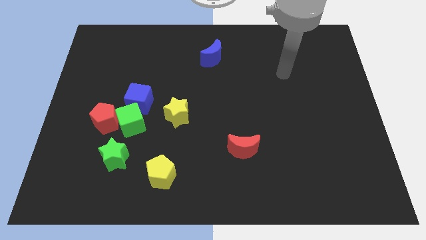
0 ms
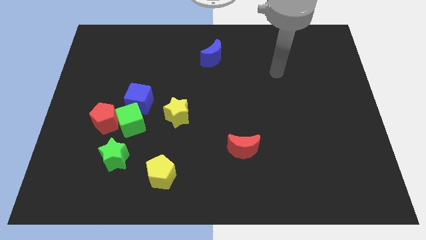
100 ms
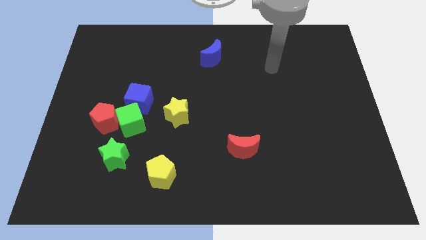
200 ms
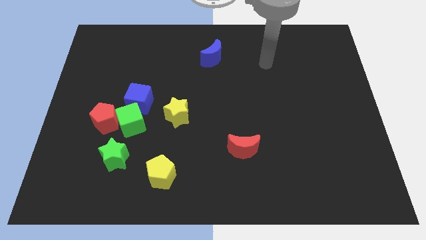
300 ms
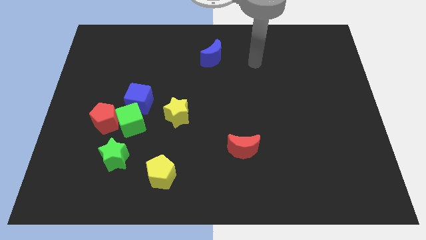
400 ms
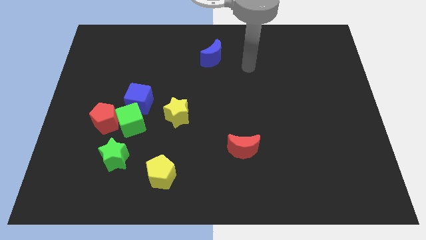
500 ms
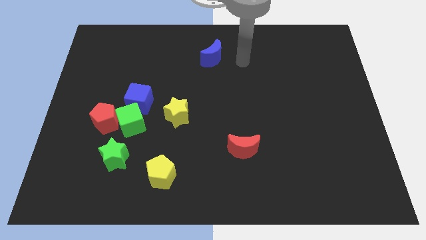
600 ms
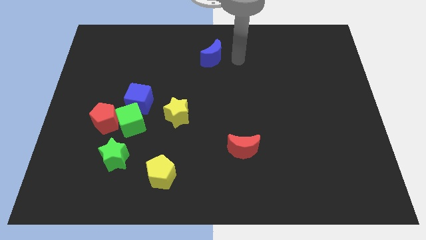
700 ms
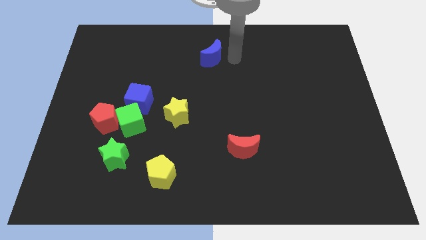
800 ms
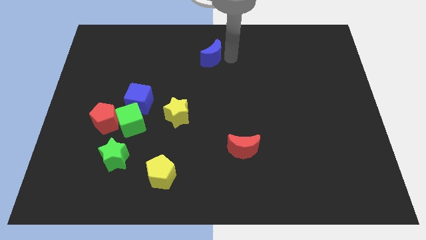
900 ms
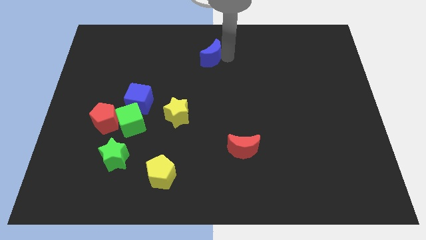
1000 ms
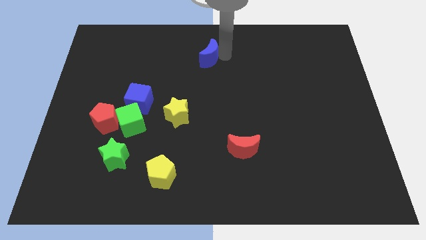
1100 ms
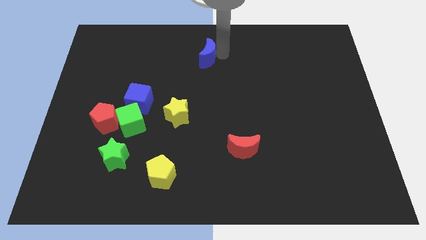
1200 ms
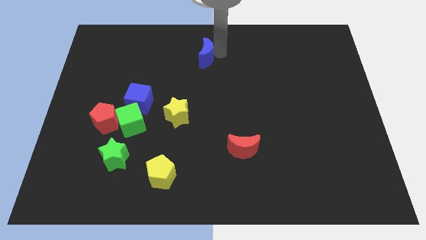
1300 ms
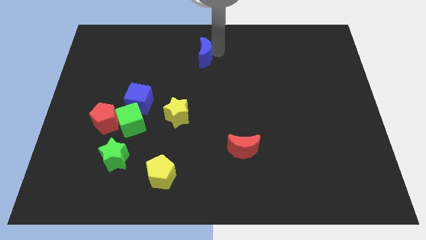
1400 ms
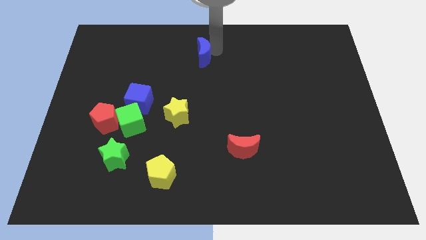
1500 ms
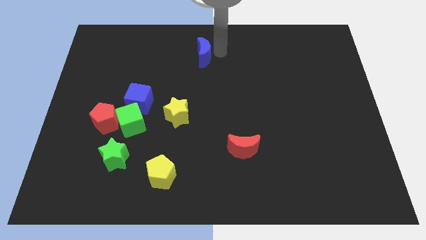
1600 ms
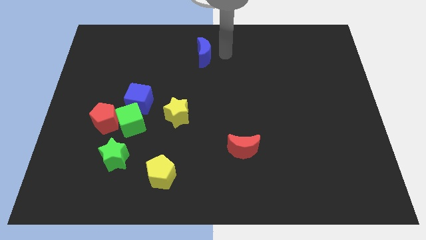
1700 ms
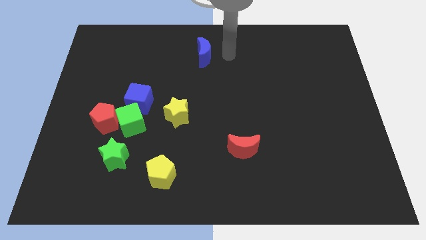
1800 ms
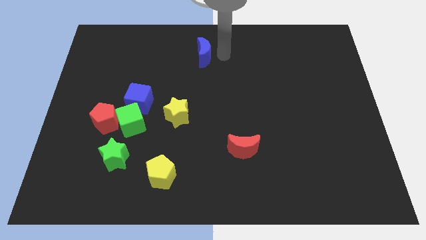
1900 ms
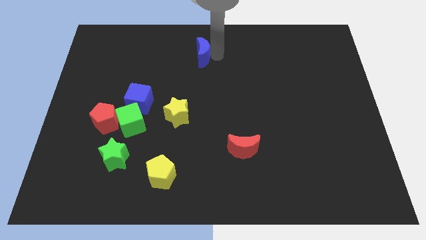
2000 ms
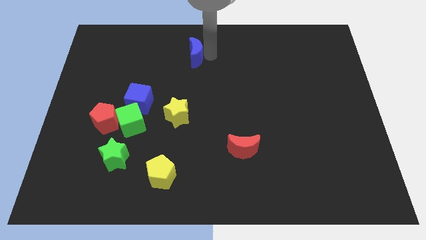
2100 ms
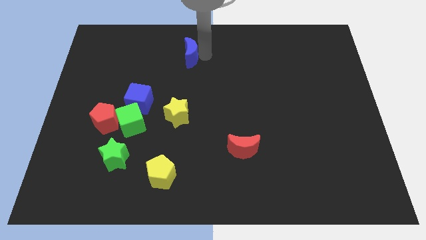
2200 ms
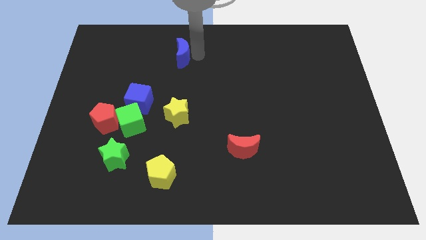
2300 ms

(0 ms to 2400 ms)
slightly push the blue moon left

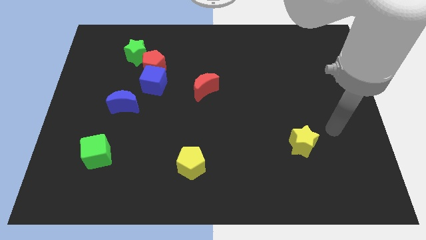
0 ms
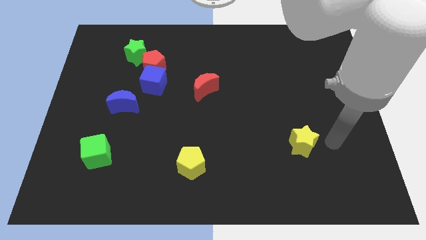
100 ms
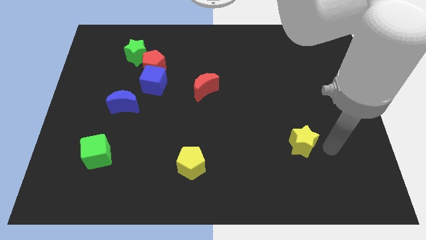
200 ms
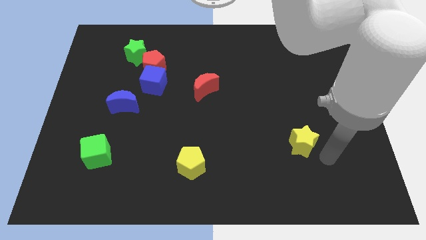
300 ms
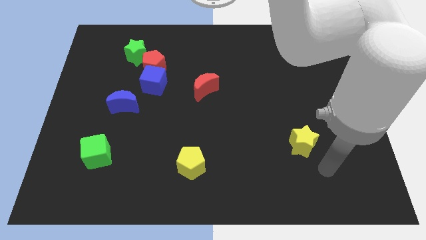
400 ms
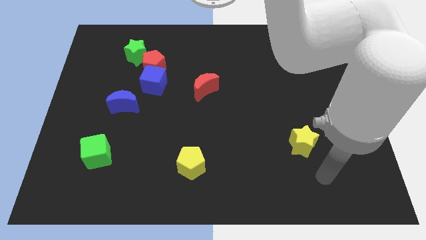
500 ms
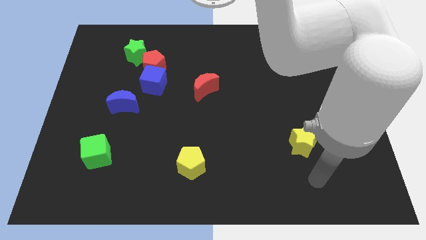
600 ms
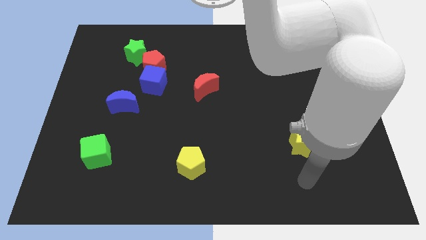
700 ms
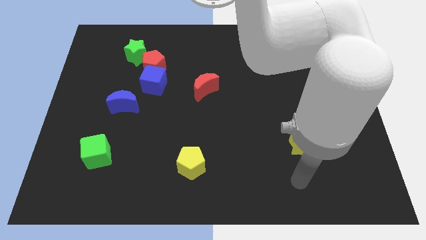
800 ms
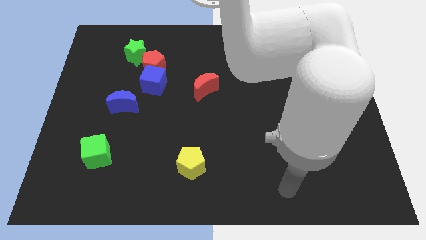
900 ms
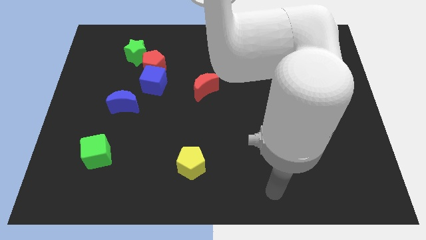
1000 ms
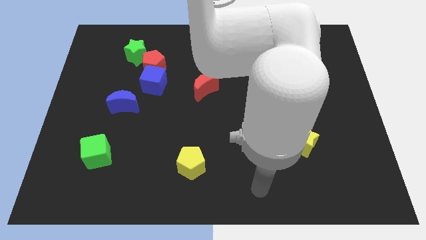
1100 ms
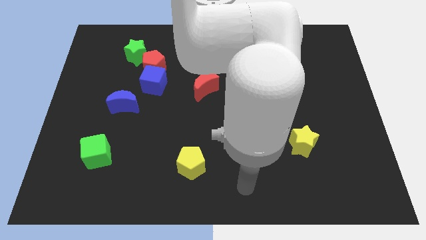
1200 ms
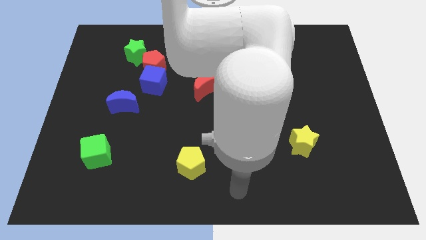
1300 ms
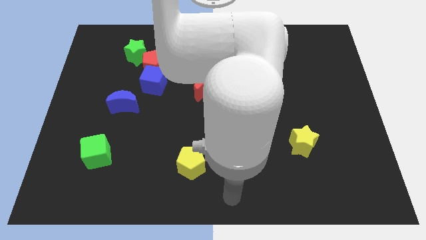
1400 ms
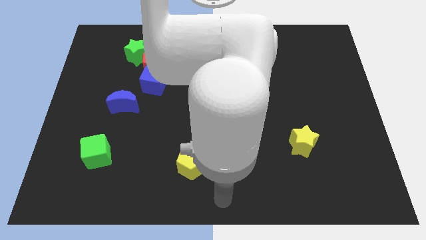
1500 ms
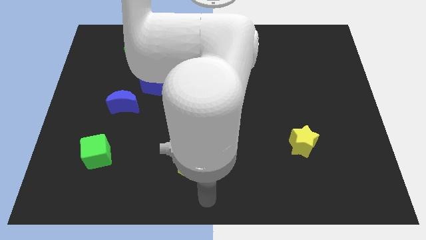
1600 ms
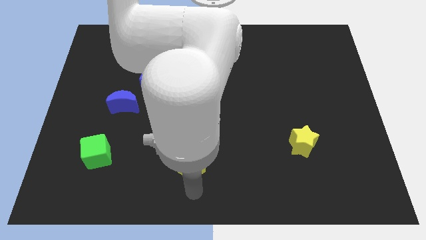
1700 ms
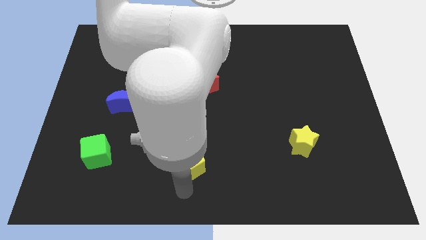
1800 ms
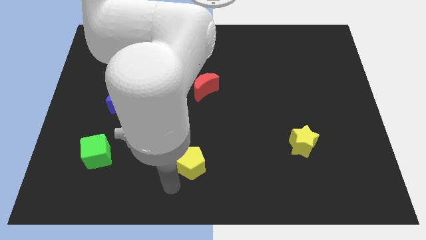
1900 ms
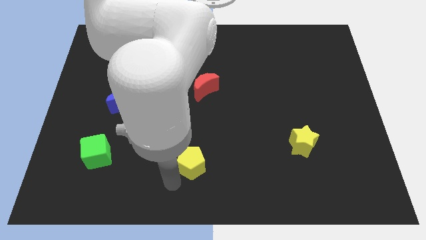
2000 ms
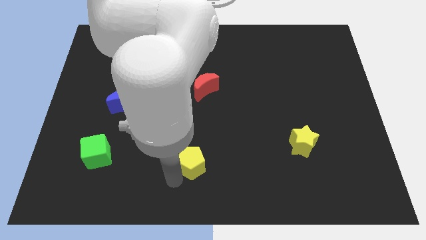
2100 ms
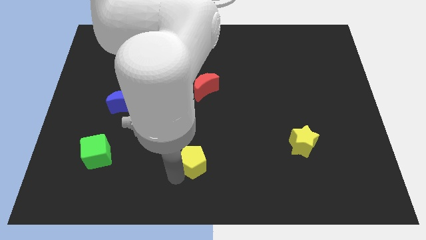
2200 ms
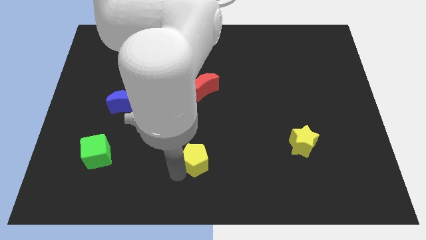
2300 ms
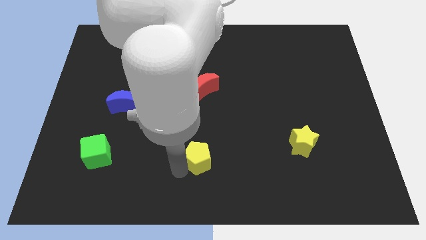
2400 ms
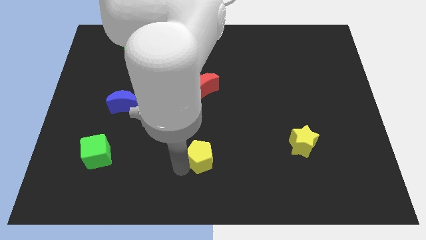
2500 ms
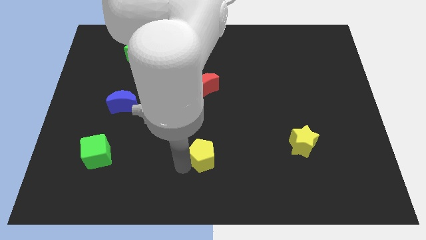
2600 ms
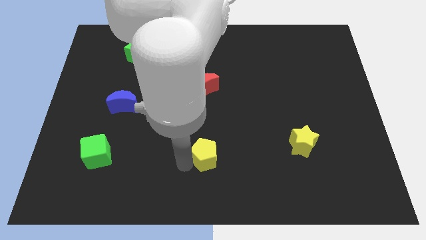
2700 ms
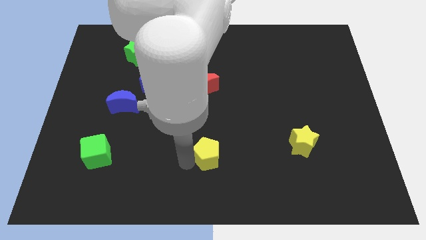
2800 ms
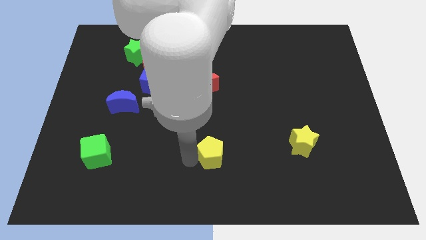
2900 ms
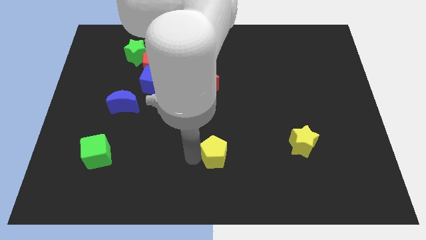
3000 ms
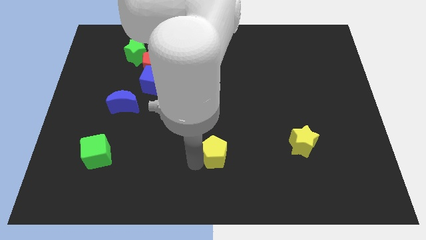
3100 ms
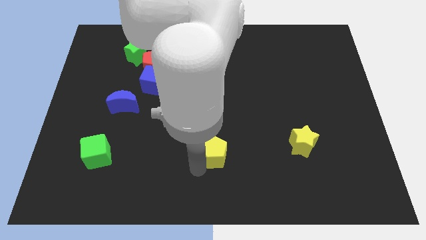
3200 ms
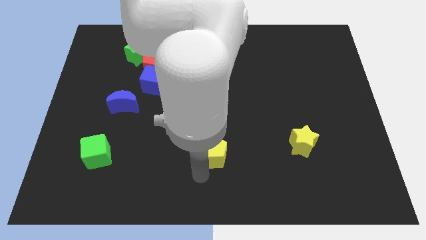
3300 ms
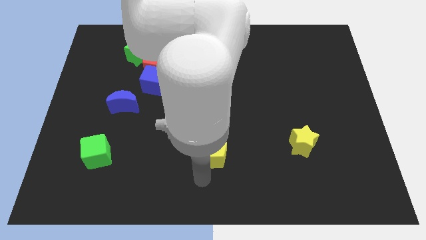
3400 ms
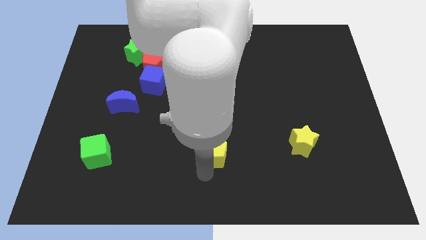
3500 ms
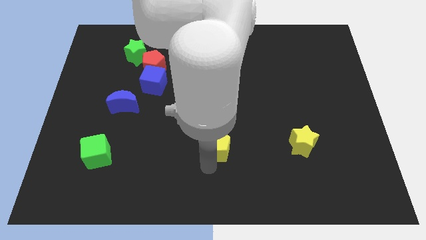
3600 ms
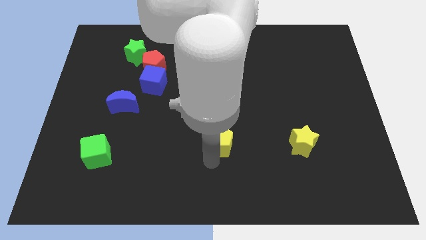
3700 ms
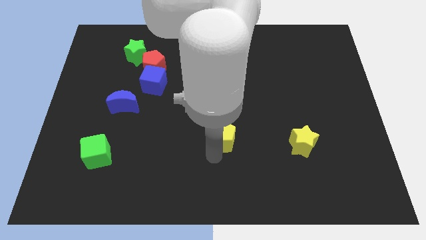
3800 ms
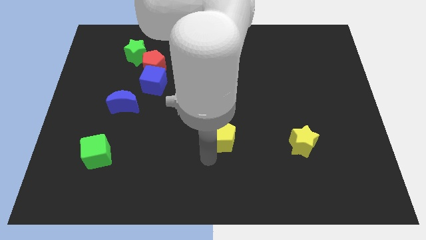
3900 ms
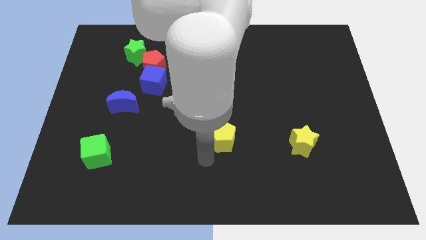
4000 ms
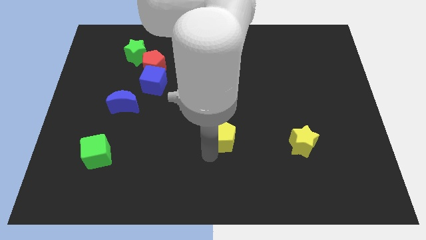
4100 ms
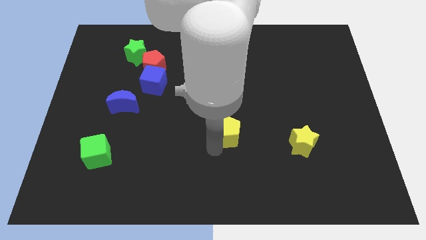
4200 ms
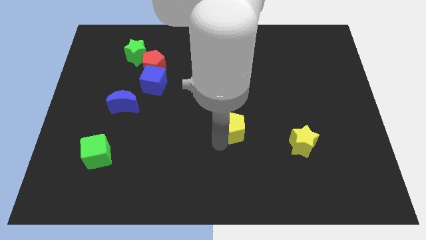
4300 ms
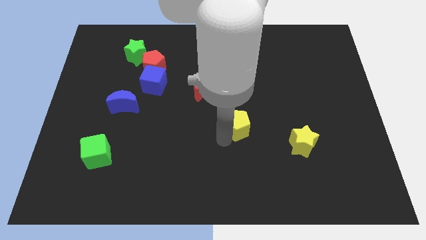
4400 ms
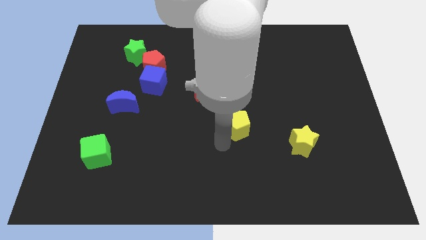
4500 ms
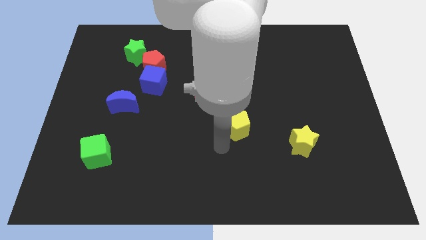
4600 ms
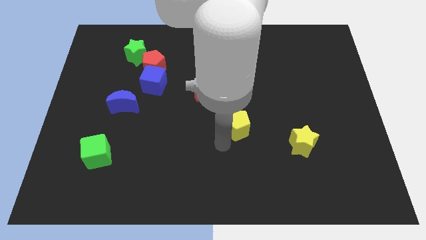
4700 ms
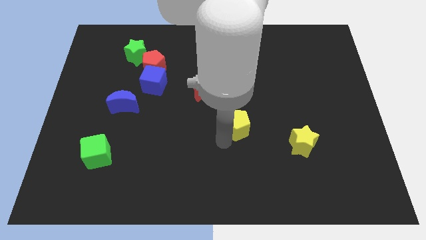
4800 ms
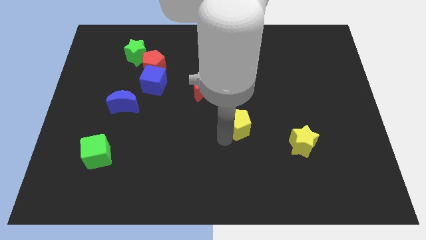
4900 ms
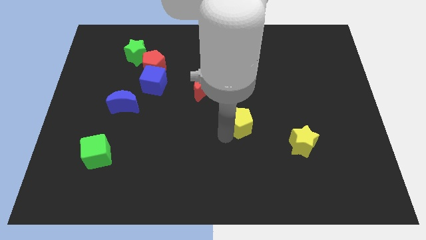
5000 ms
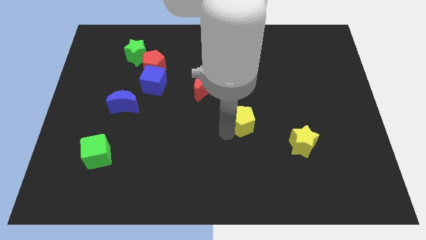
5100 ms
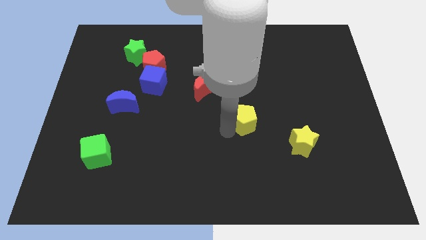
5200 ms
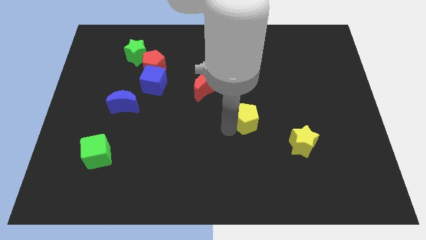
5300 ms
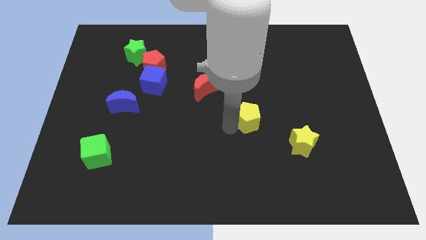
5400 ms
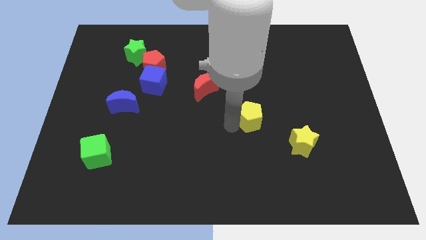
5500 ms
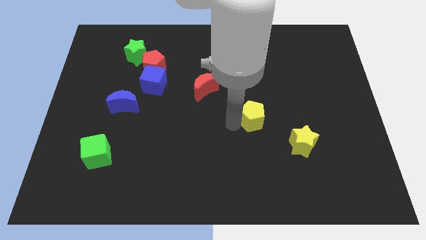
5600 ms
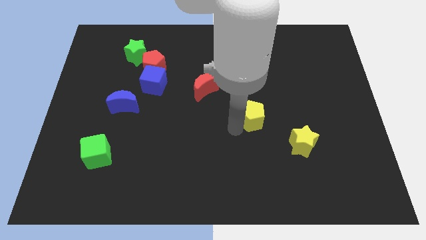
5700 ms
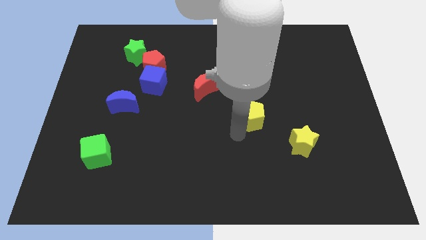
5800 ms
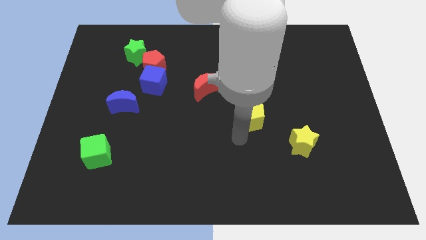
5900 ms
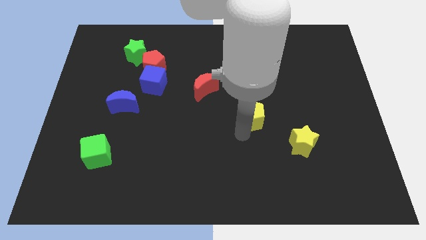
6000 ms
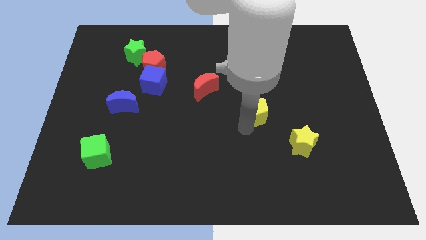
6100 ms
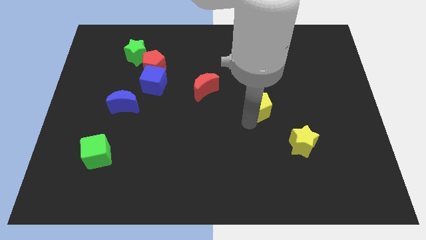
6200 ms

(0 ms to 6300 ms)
slide the yellow pentagon upwards and then to the right
